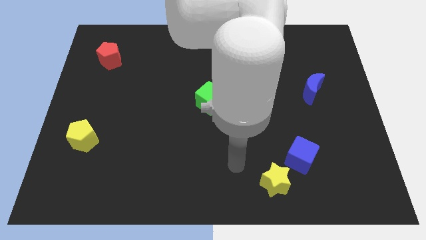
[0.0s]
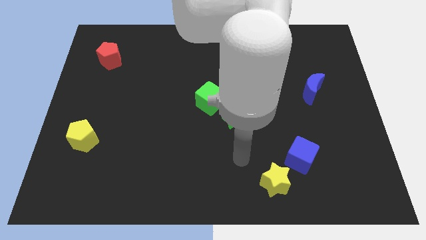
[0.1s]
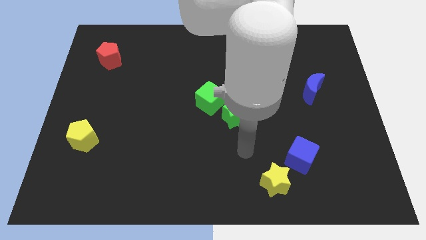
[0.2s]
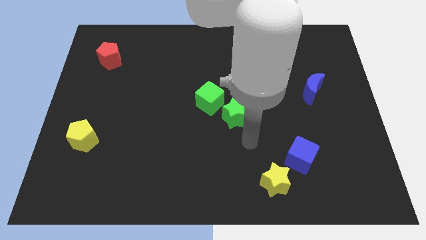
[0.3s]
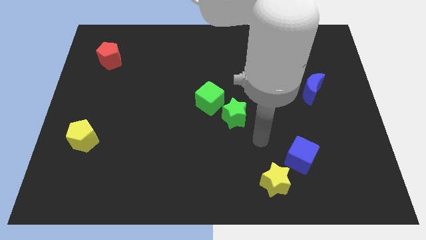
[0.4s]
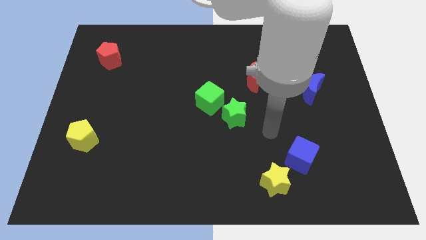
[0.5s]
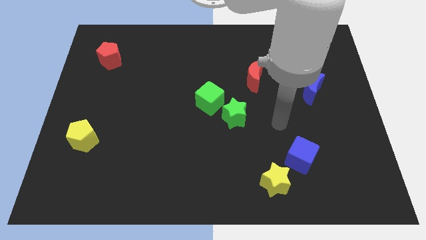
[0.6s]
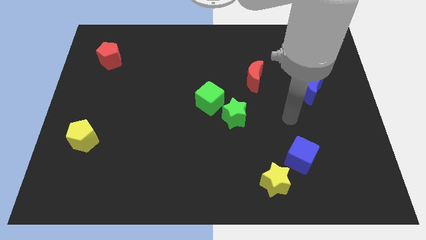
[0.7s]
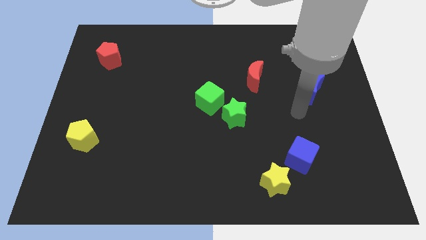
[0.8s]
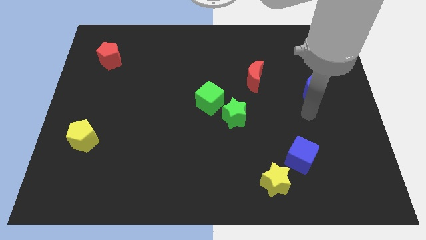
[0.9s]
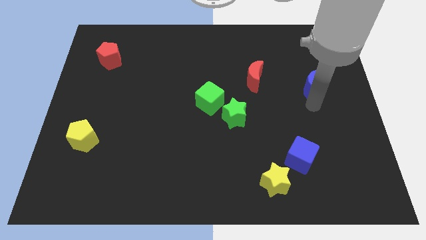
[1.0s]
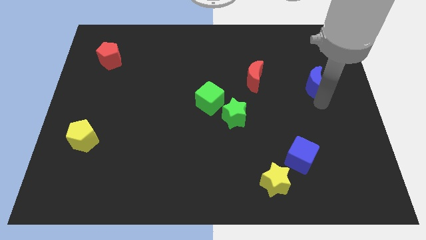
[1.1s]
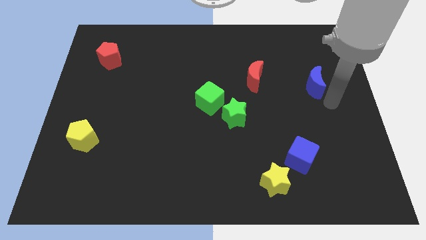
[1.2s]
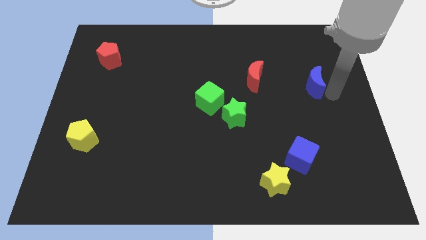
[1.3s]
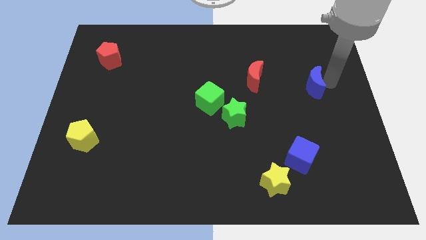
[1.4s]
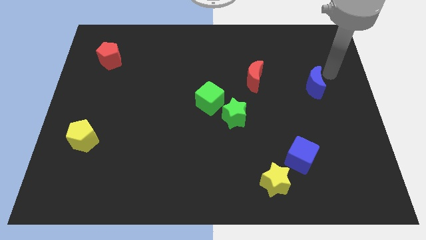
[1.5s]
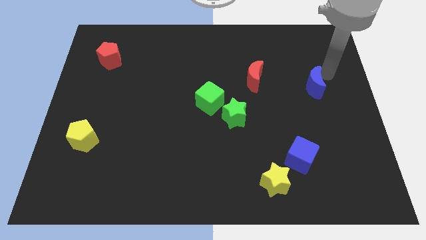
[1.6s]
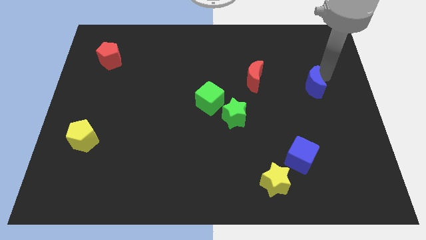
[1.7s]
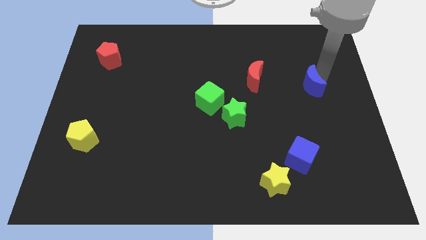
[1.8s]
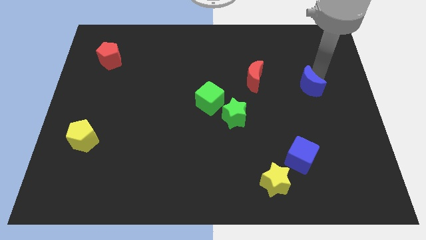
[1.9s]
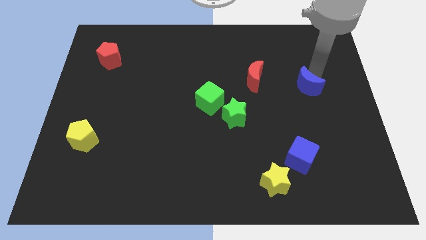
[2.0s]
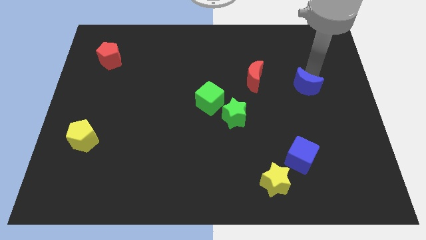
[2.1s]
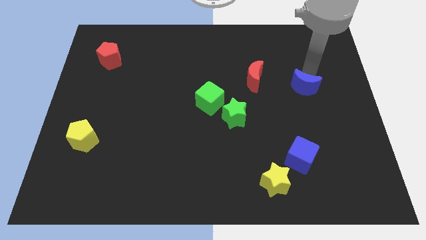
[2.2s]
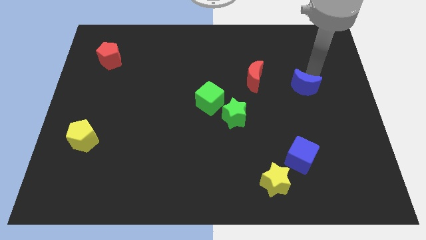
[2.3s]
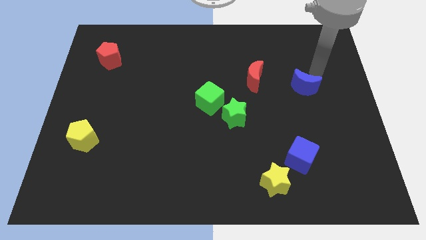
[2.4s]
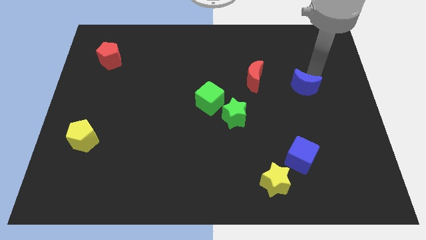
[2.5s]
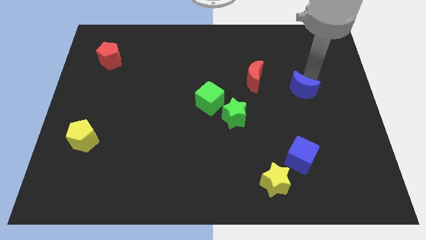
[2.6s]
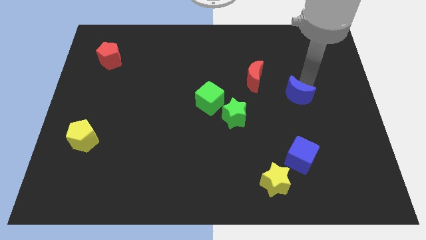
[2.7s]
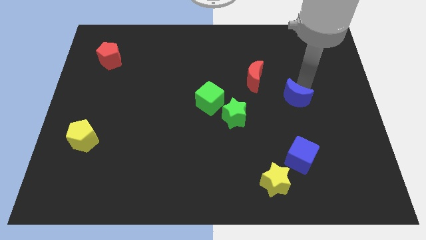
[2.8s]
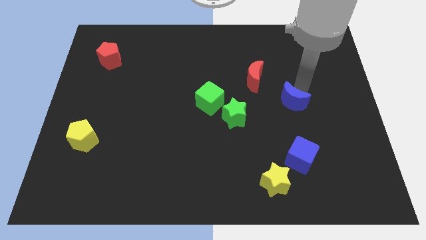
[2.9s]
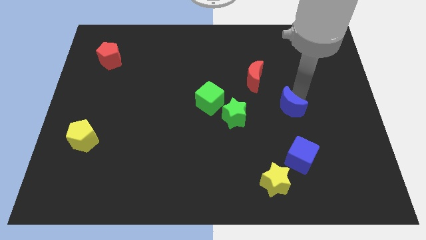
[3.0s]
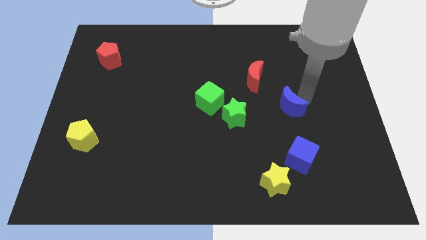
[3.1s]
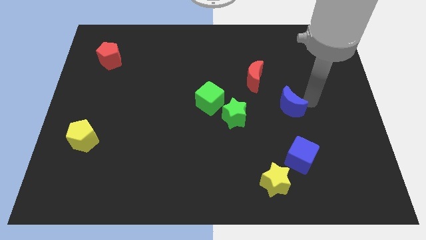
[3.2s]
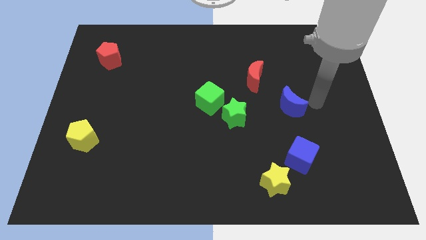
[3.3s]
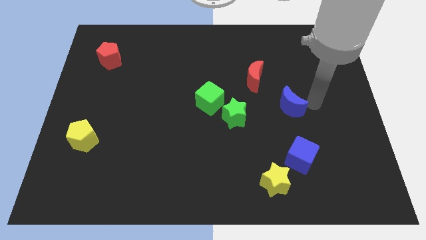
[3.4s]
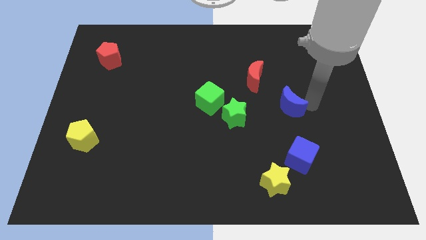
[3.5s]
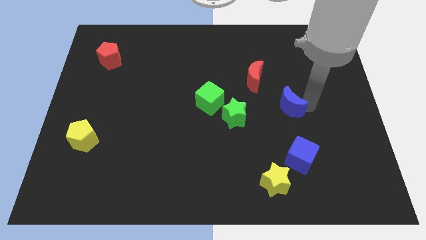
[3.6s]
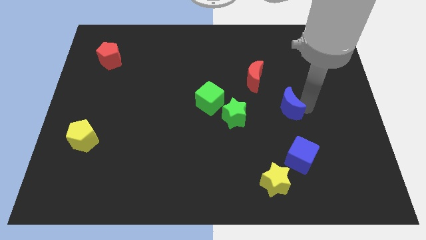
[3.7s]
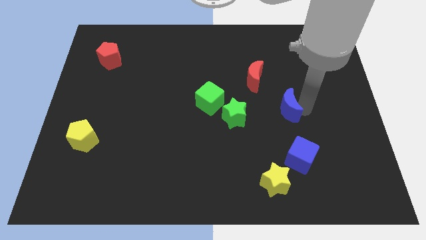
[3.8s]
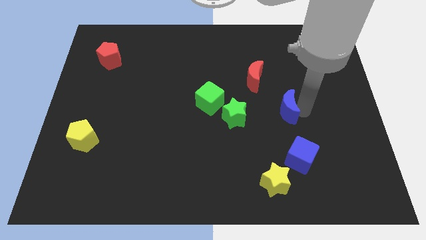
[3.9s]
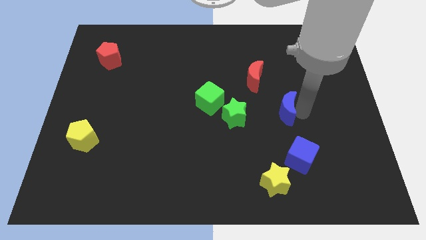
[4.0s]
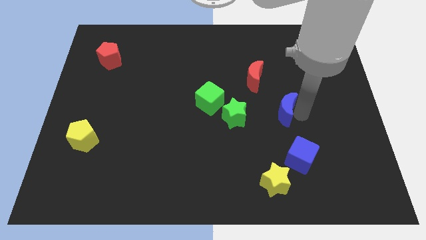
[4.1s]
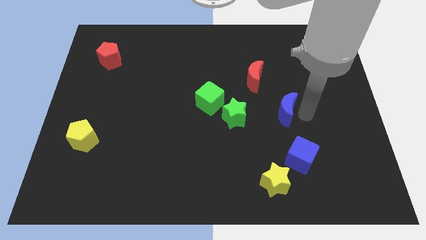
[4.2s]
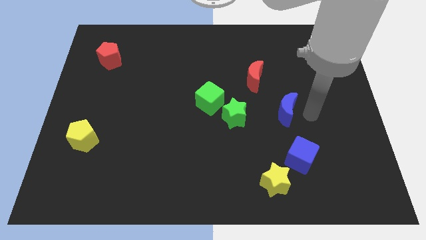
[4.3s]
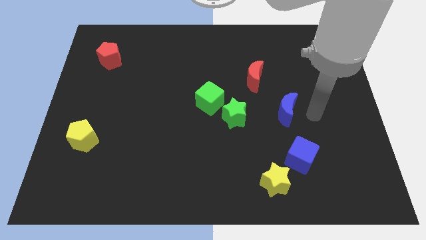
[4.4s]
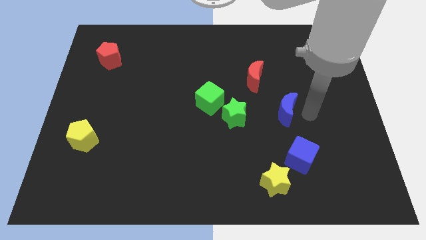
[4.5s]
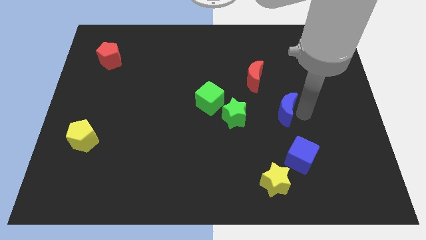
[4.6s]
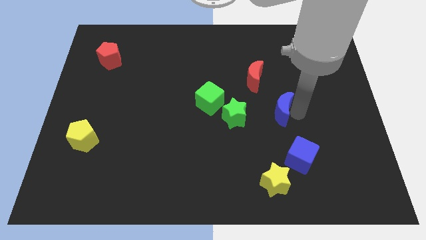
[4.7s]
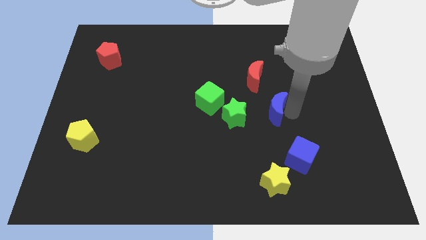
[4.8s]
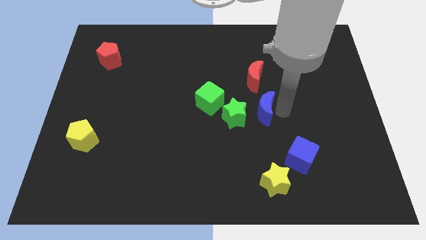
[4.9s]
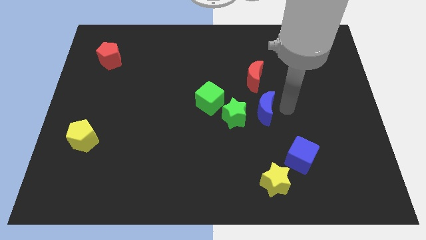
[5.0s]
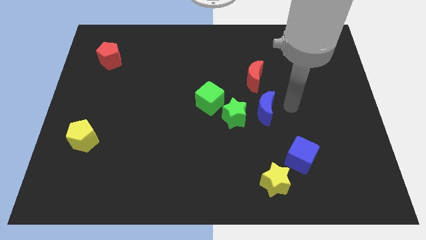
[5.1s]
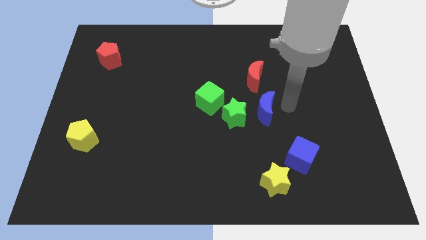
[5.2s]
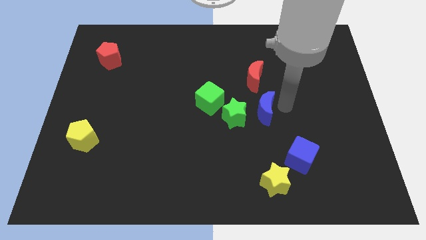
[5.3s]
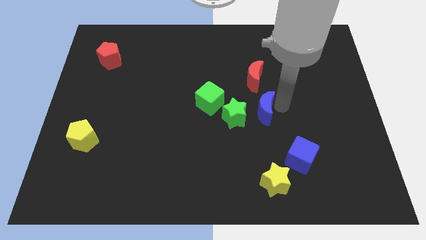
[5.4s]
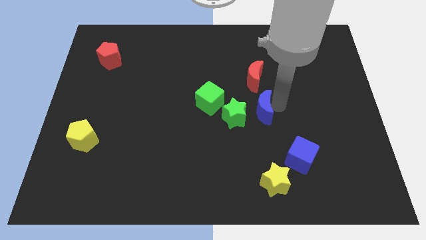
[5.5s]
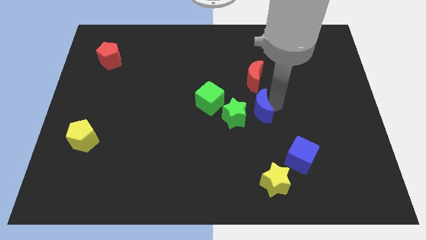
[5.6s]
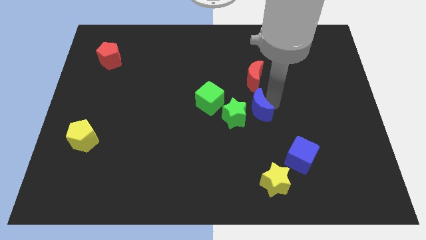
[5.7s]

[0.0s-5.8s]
push the blue moon next to the green star

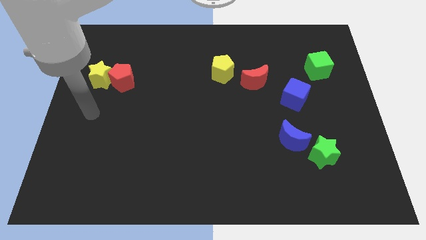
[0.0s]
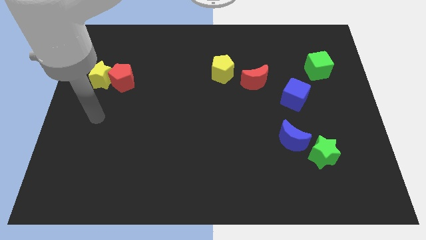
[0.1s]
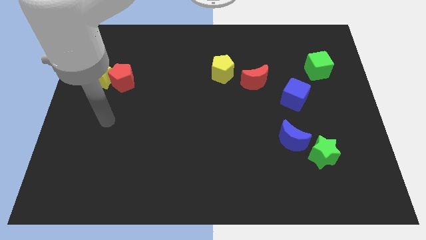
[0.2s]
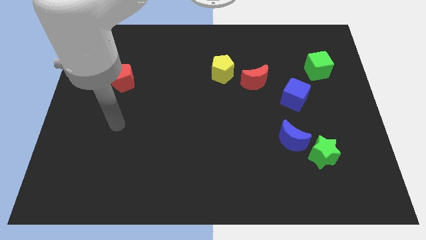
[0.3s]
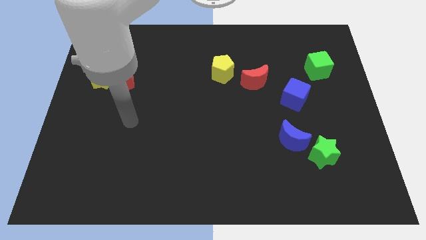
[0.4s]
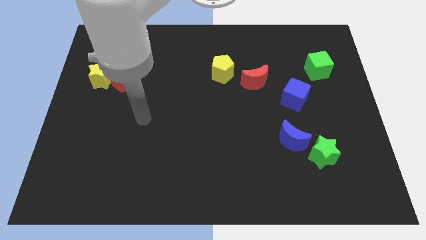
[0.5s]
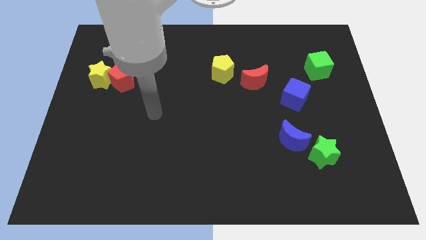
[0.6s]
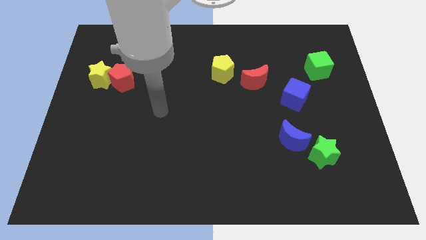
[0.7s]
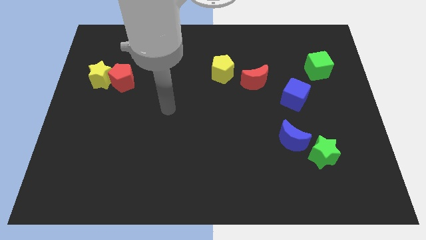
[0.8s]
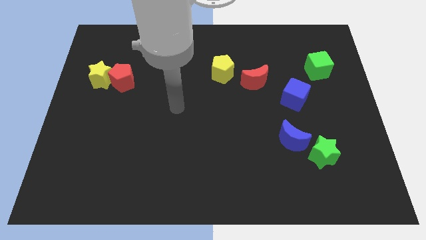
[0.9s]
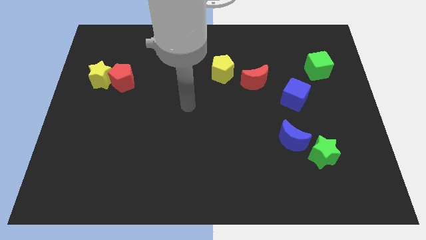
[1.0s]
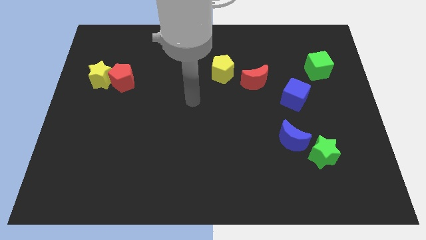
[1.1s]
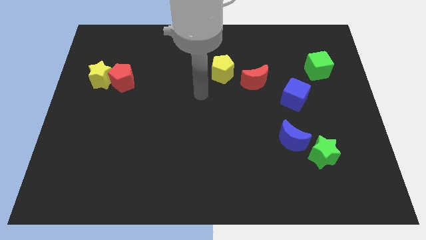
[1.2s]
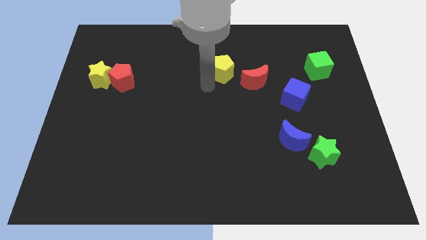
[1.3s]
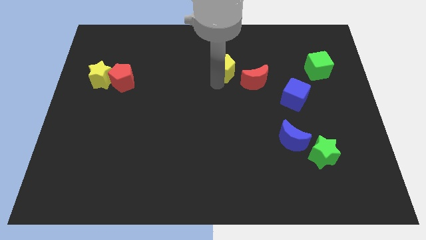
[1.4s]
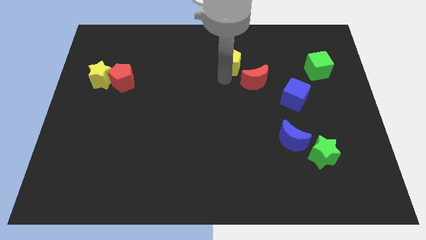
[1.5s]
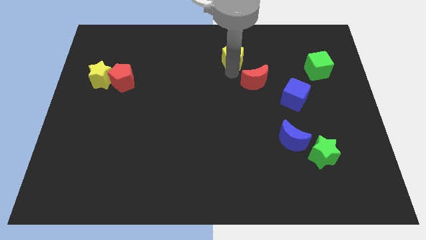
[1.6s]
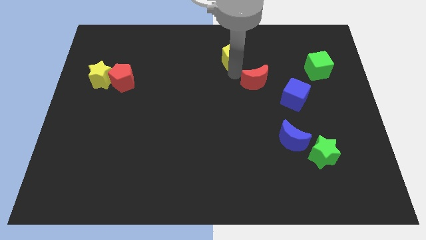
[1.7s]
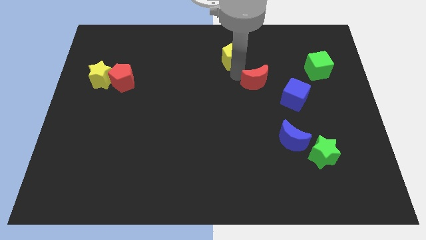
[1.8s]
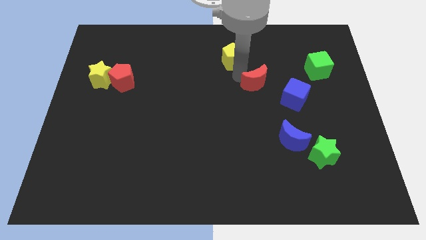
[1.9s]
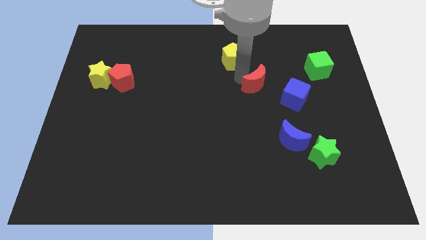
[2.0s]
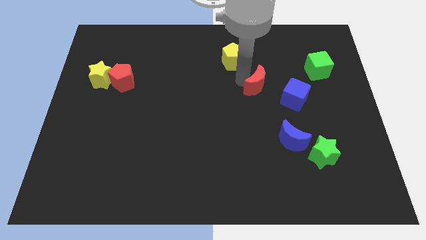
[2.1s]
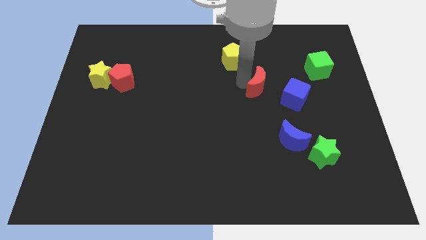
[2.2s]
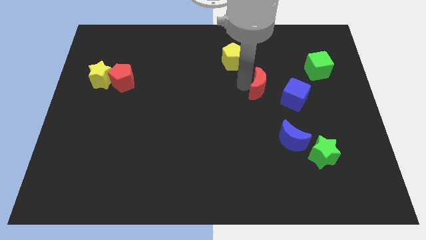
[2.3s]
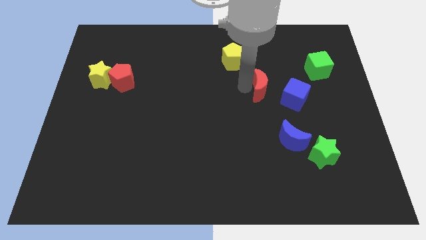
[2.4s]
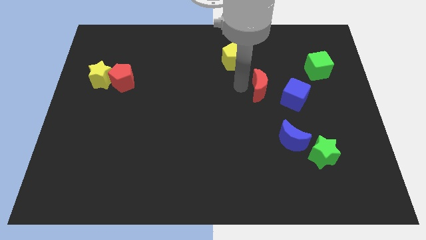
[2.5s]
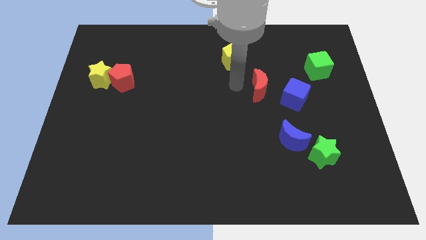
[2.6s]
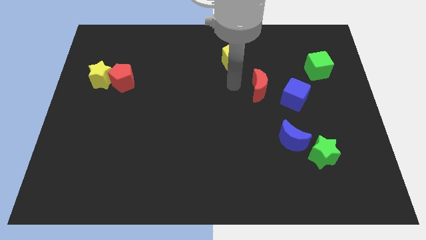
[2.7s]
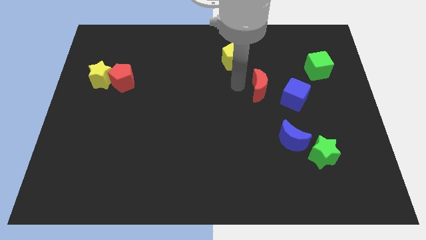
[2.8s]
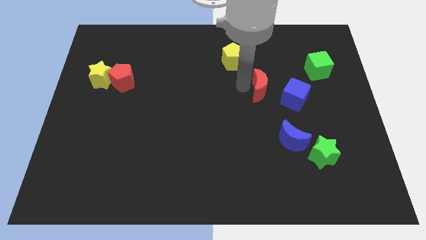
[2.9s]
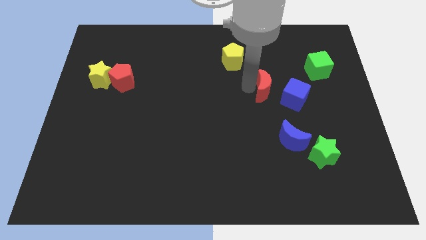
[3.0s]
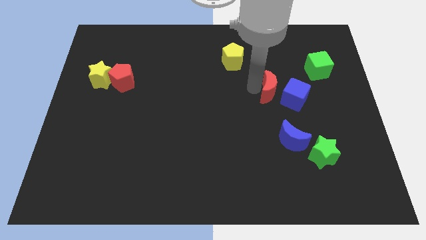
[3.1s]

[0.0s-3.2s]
slide the red moon towards the blue cube
